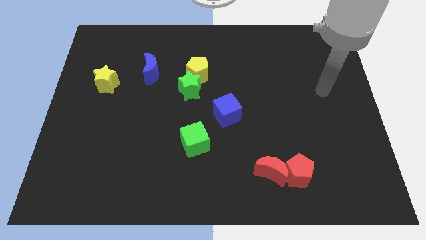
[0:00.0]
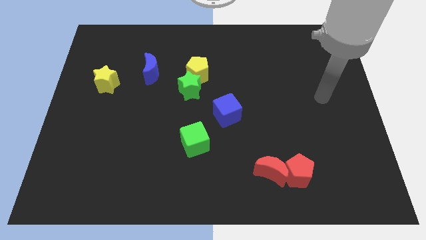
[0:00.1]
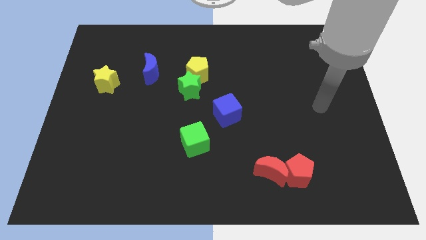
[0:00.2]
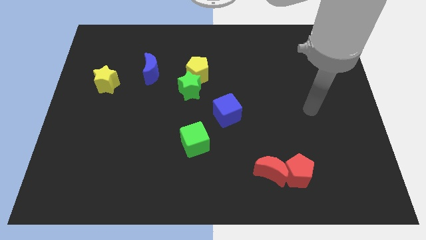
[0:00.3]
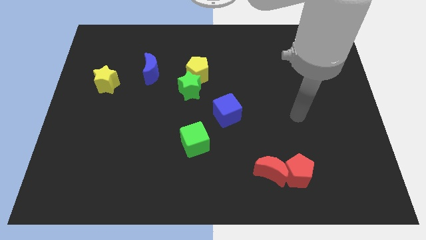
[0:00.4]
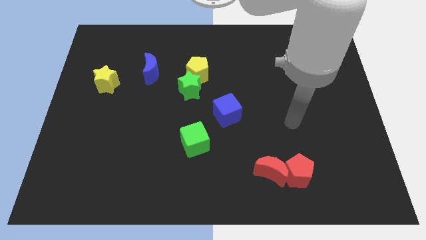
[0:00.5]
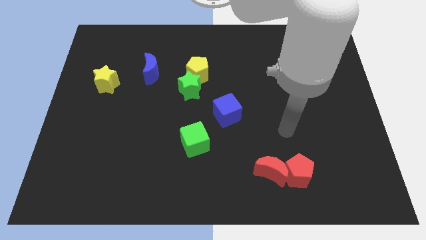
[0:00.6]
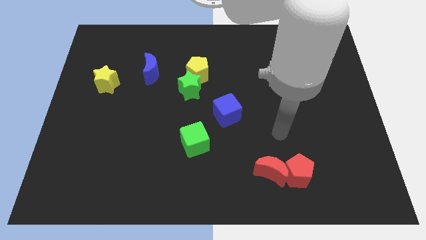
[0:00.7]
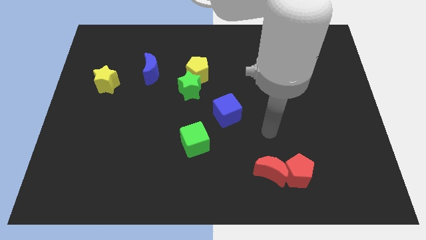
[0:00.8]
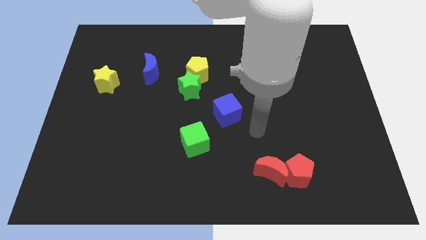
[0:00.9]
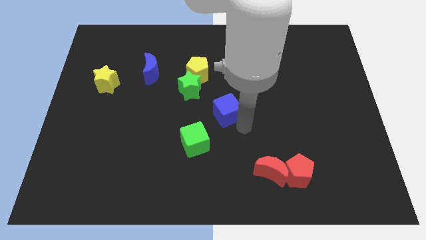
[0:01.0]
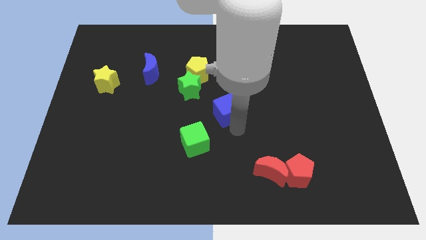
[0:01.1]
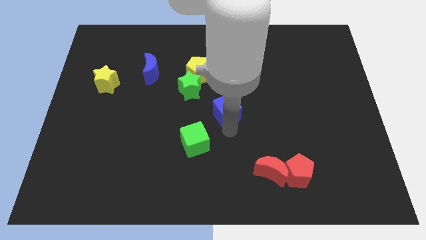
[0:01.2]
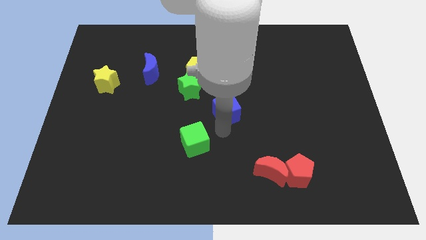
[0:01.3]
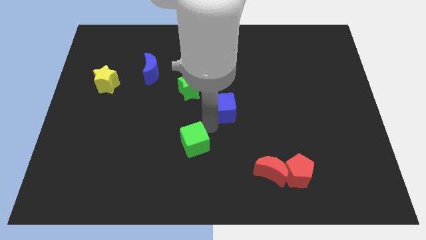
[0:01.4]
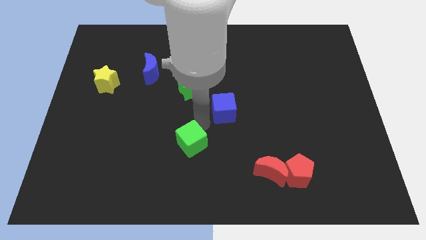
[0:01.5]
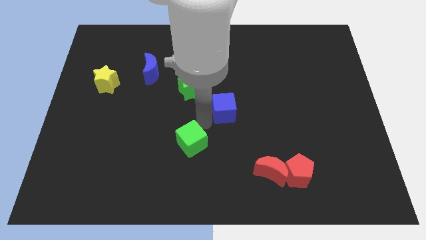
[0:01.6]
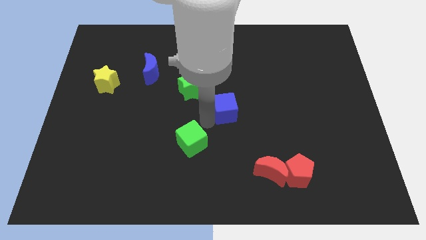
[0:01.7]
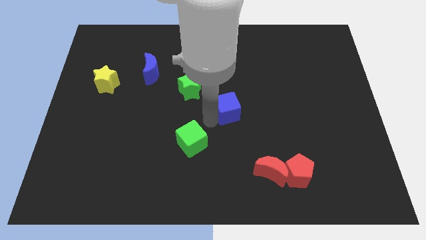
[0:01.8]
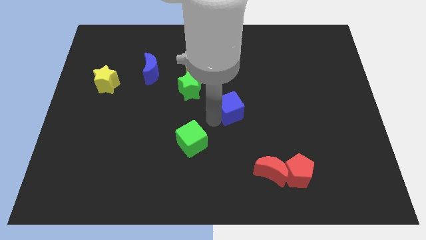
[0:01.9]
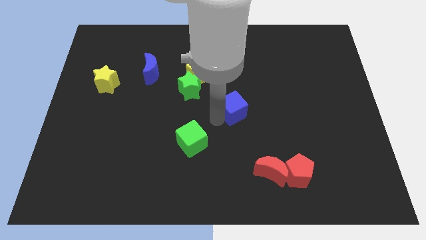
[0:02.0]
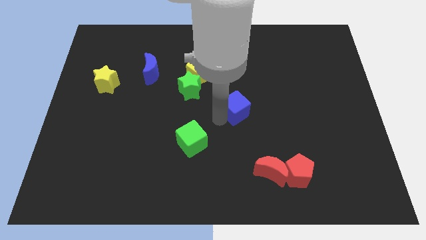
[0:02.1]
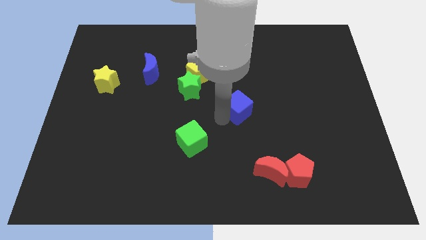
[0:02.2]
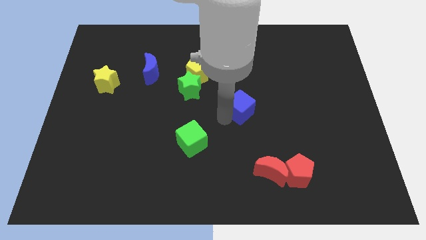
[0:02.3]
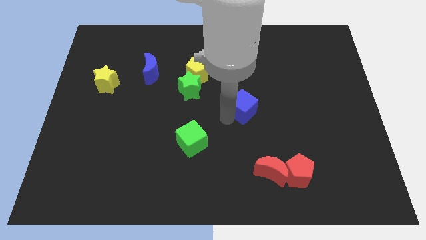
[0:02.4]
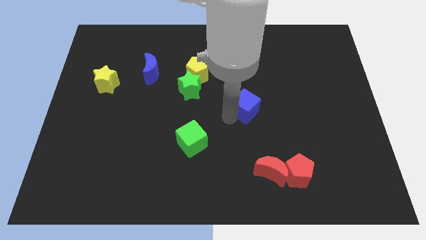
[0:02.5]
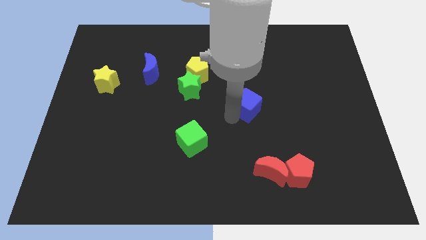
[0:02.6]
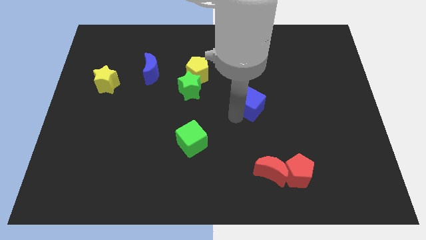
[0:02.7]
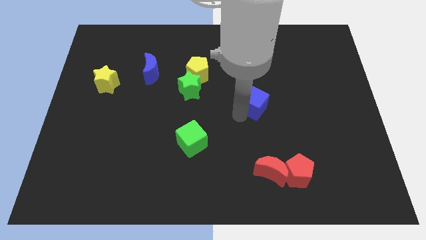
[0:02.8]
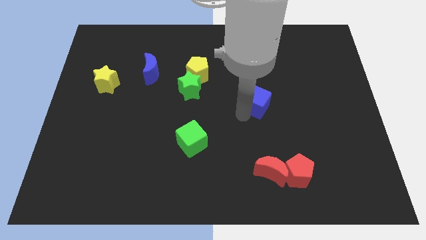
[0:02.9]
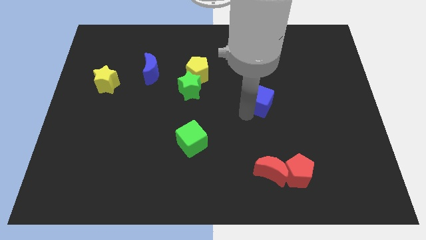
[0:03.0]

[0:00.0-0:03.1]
slightly push the blue cube diagonally up and to the right

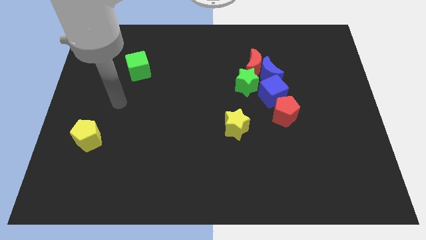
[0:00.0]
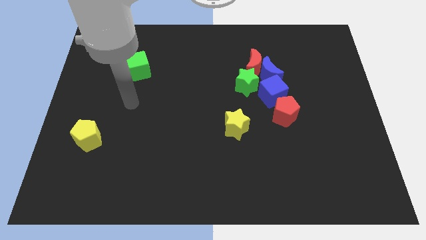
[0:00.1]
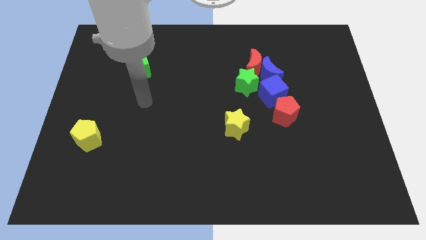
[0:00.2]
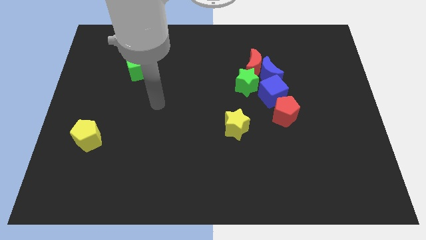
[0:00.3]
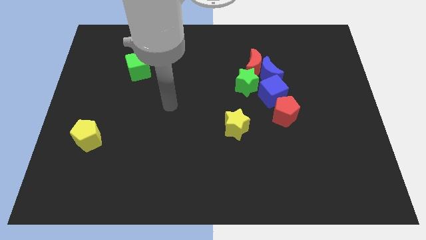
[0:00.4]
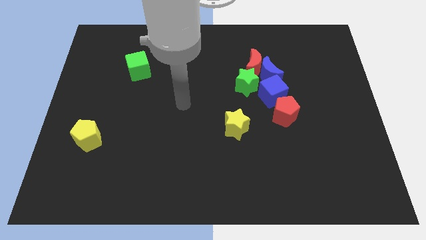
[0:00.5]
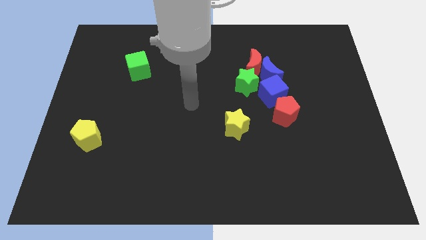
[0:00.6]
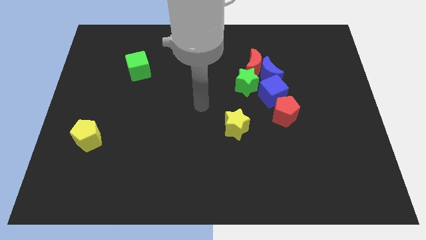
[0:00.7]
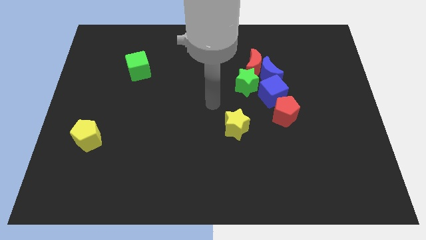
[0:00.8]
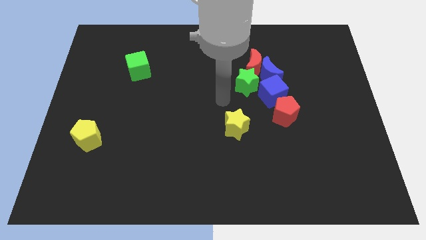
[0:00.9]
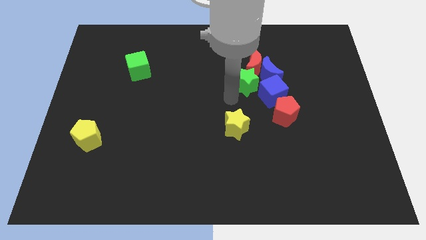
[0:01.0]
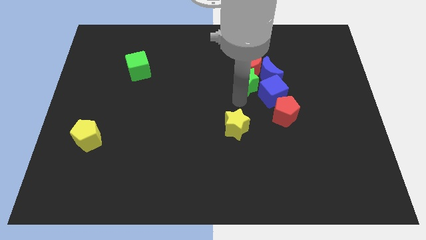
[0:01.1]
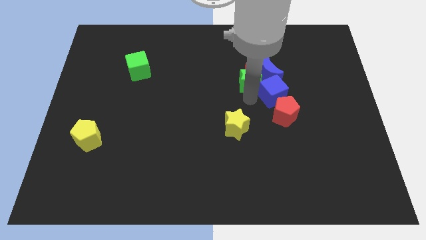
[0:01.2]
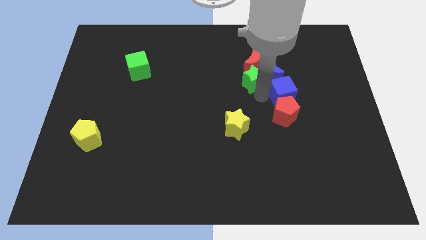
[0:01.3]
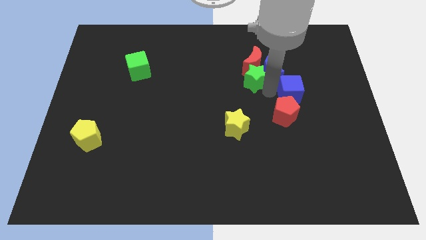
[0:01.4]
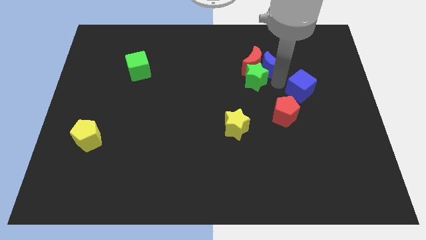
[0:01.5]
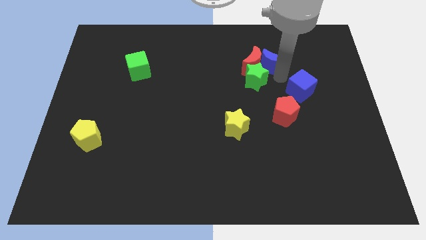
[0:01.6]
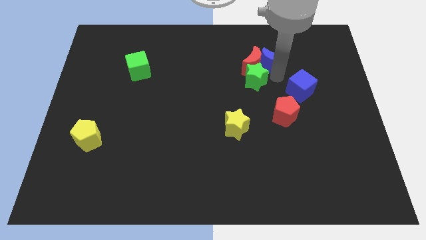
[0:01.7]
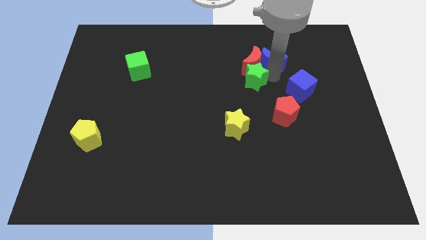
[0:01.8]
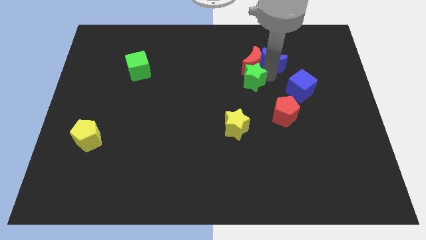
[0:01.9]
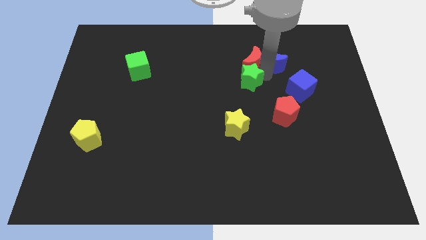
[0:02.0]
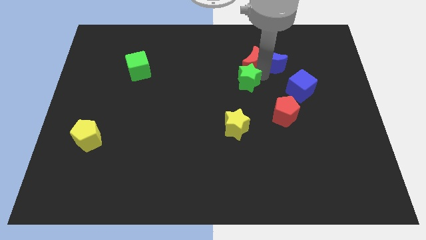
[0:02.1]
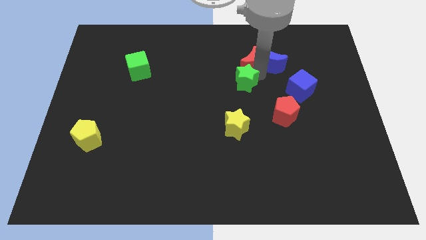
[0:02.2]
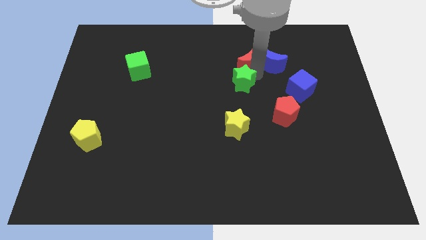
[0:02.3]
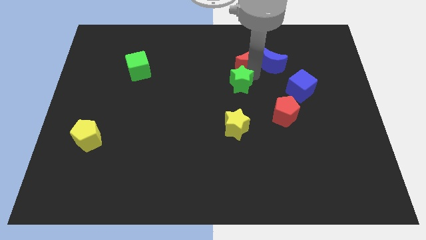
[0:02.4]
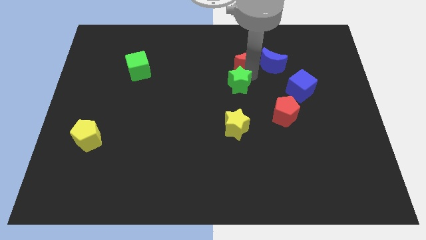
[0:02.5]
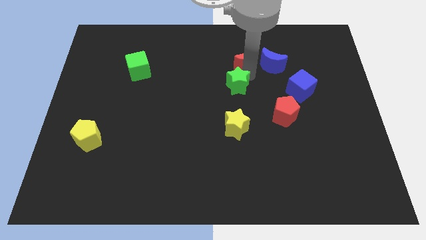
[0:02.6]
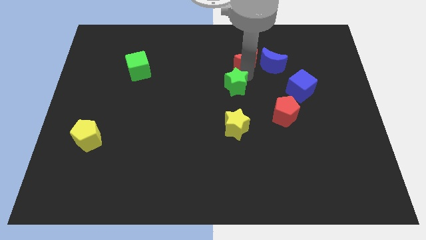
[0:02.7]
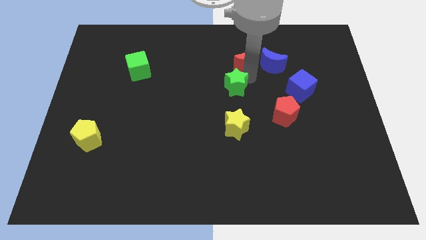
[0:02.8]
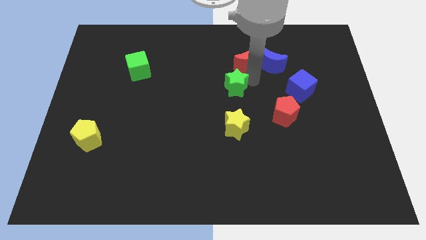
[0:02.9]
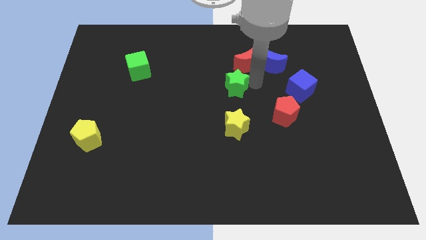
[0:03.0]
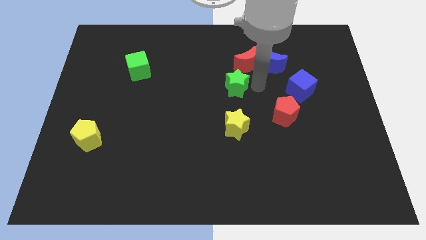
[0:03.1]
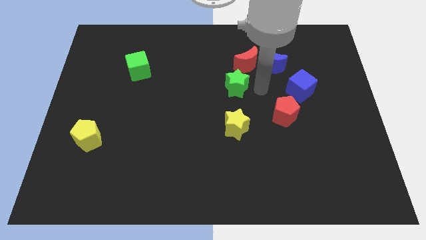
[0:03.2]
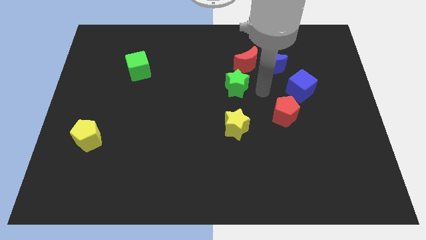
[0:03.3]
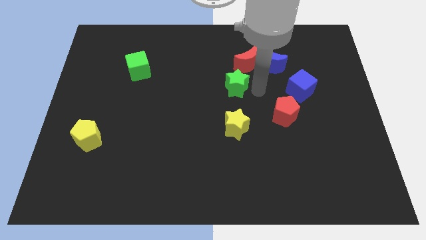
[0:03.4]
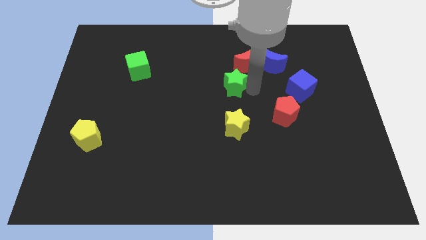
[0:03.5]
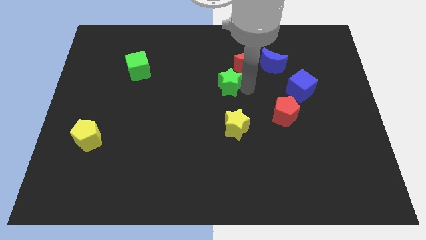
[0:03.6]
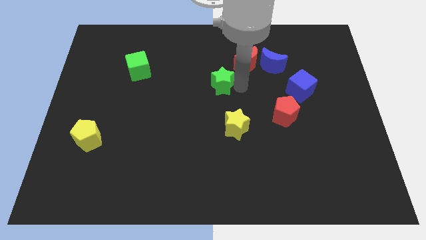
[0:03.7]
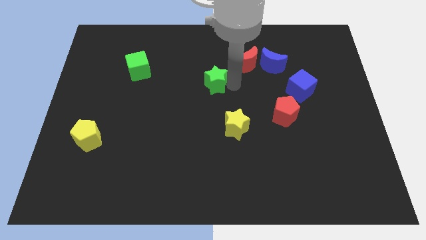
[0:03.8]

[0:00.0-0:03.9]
slightly slide the green star to the left

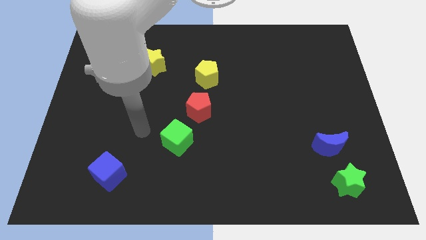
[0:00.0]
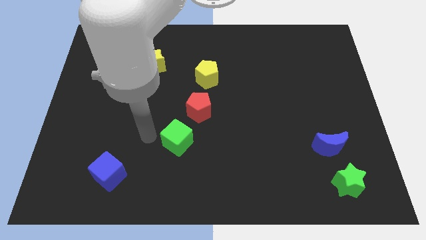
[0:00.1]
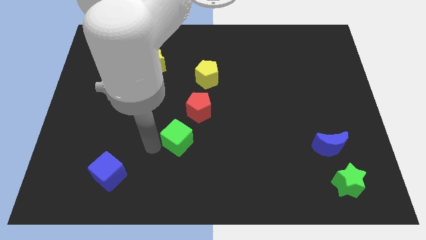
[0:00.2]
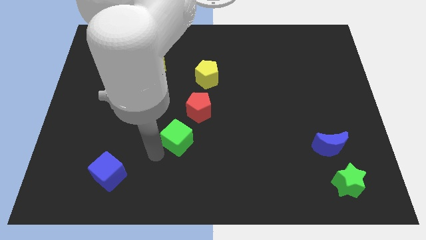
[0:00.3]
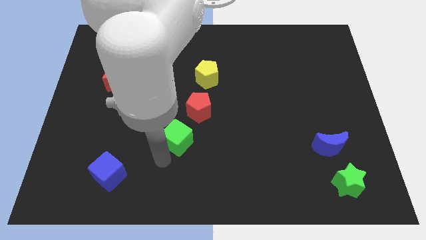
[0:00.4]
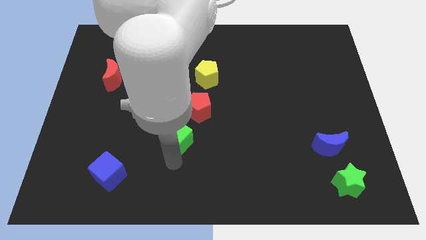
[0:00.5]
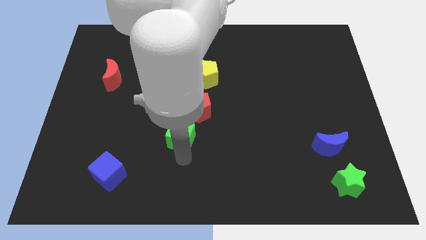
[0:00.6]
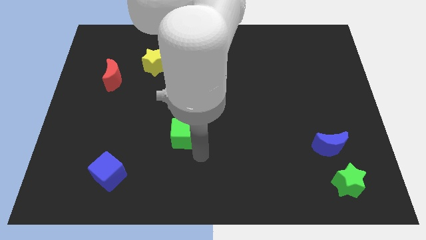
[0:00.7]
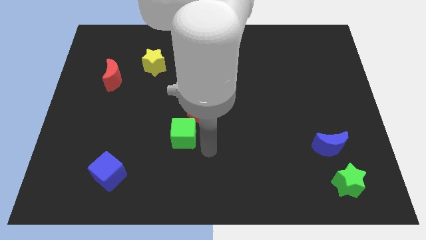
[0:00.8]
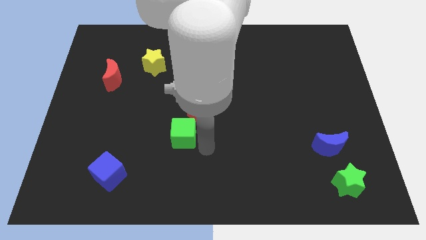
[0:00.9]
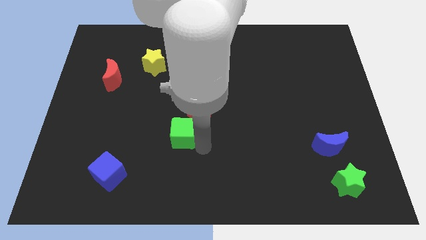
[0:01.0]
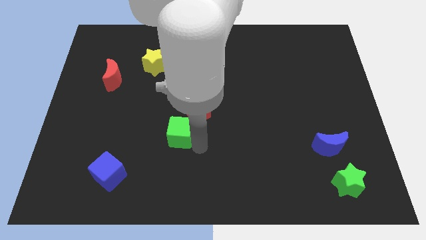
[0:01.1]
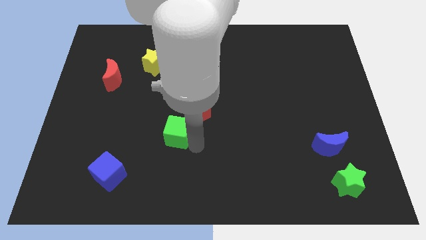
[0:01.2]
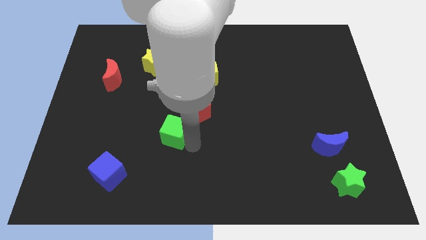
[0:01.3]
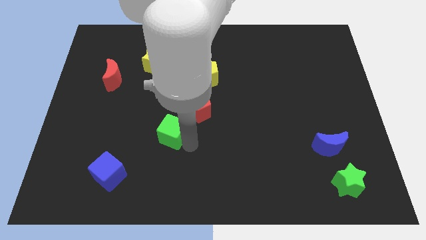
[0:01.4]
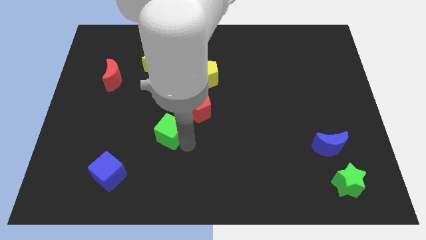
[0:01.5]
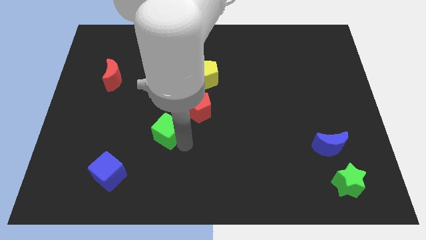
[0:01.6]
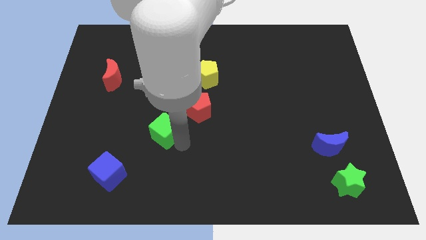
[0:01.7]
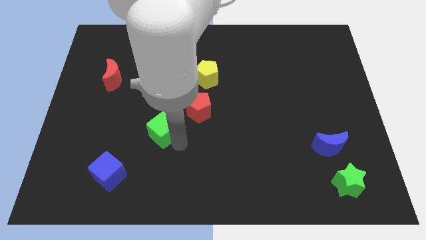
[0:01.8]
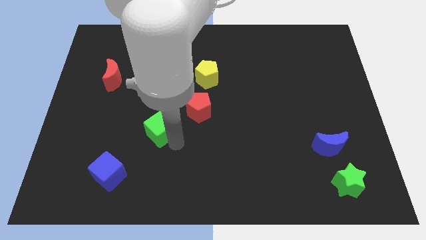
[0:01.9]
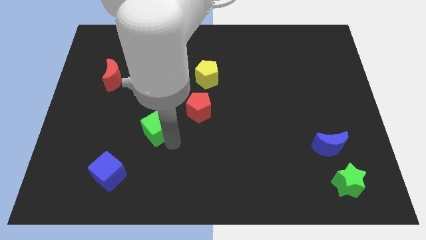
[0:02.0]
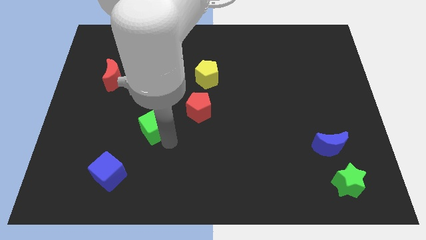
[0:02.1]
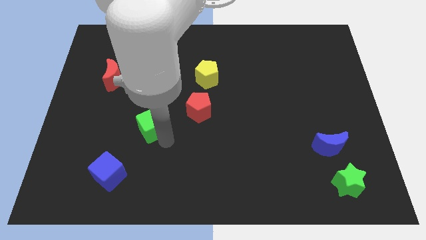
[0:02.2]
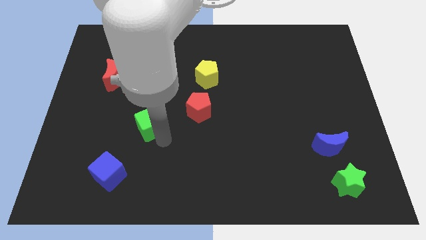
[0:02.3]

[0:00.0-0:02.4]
slightly slide the green cube up and to the left diagonally
